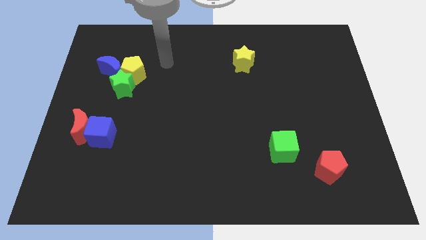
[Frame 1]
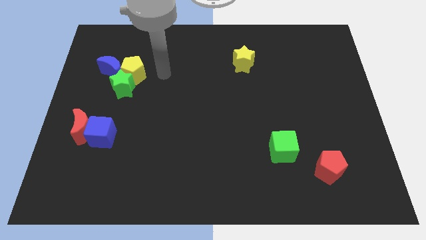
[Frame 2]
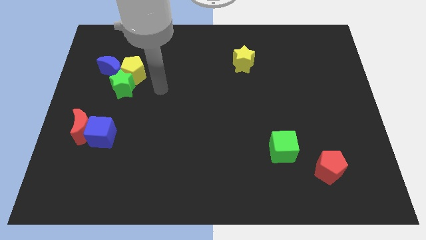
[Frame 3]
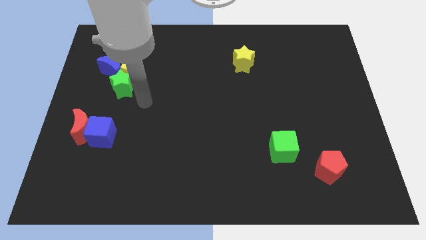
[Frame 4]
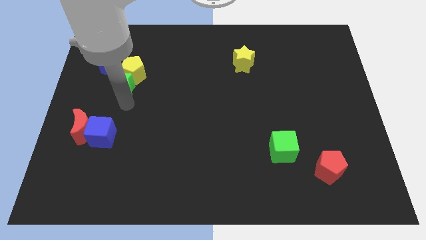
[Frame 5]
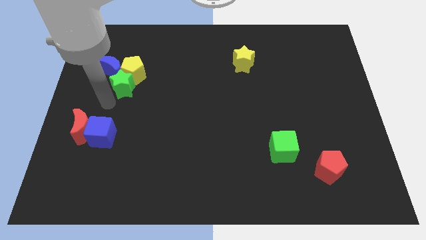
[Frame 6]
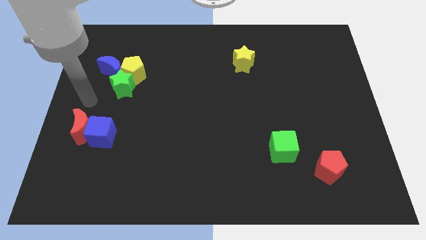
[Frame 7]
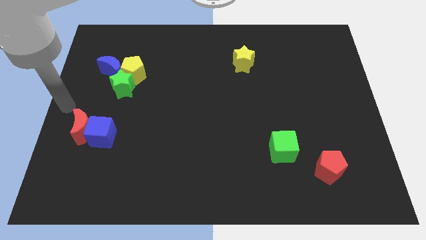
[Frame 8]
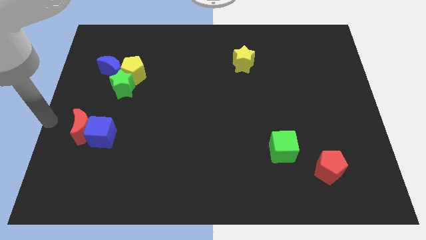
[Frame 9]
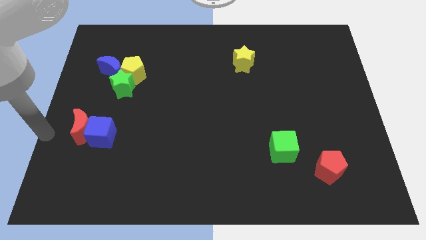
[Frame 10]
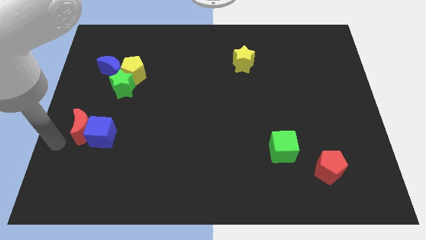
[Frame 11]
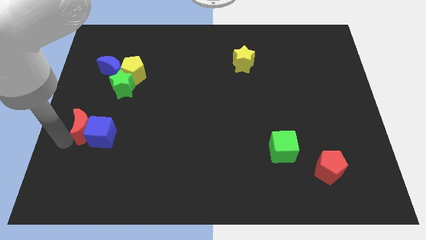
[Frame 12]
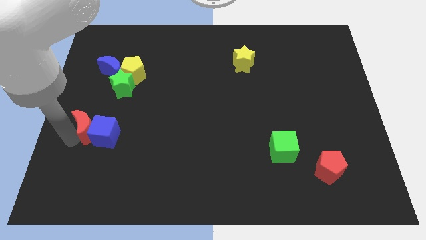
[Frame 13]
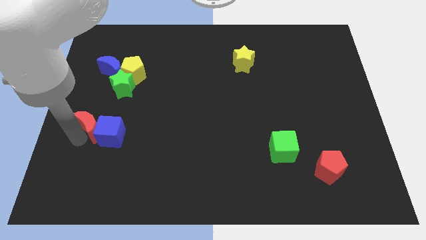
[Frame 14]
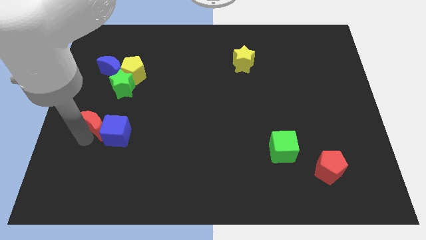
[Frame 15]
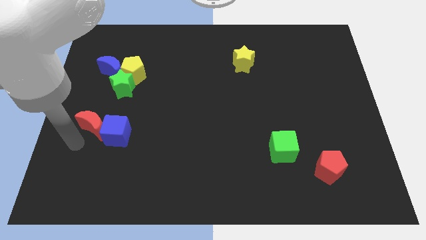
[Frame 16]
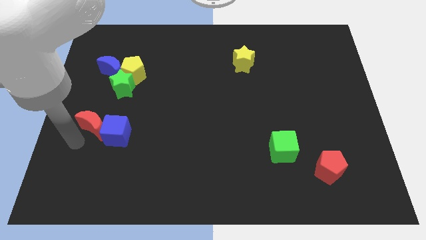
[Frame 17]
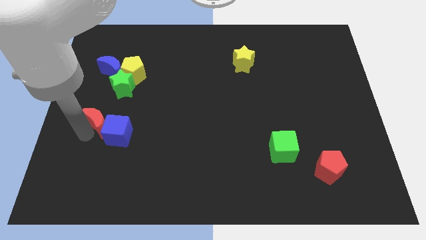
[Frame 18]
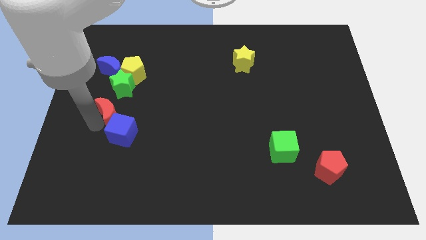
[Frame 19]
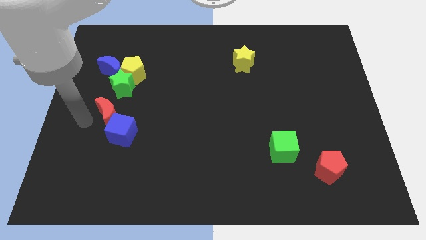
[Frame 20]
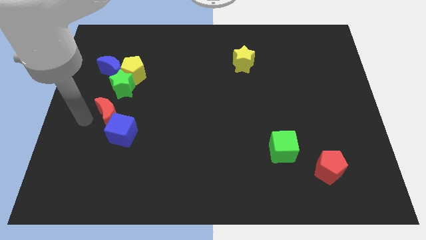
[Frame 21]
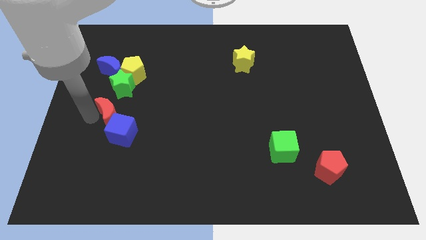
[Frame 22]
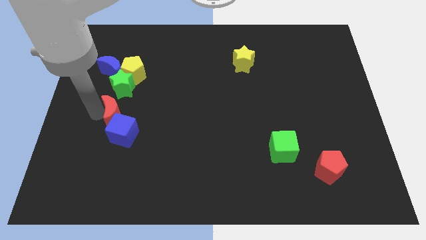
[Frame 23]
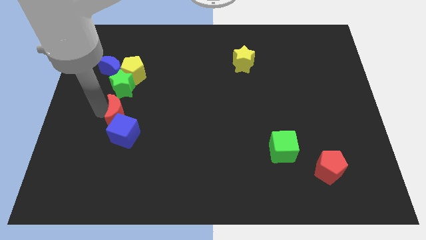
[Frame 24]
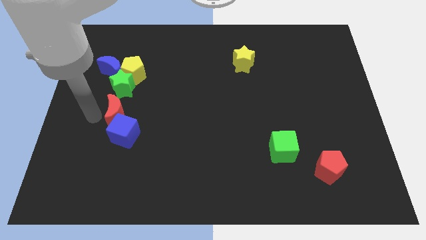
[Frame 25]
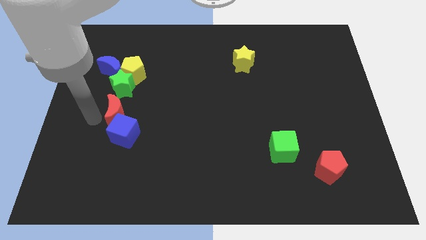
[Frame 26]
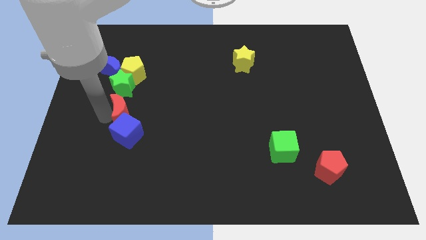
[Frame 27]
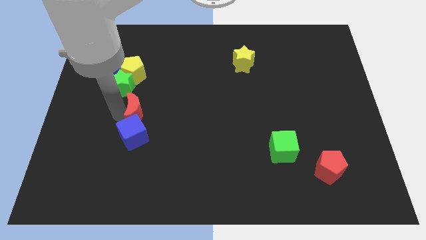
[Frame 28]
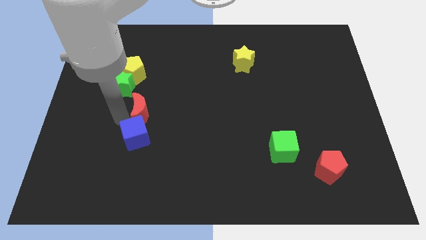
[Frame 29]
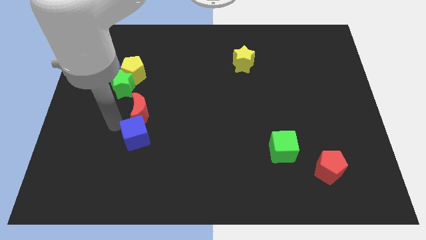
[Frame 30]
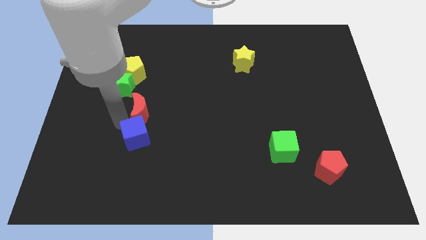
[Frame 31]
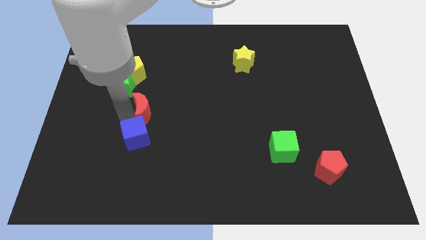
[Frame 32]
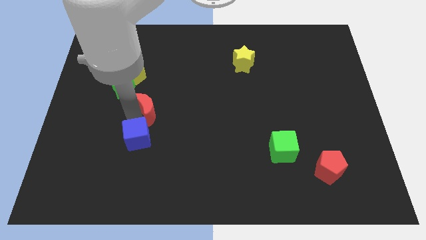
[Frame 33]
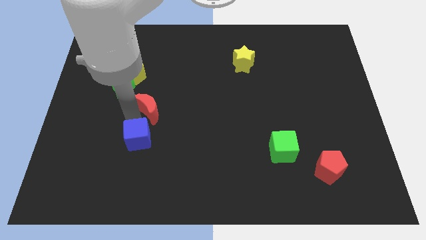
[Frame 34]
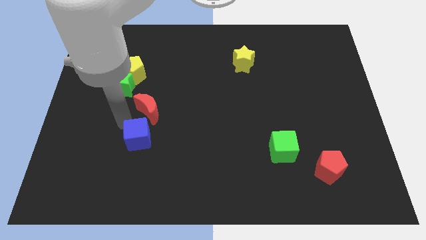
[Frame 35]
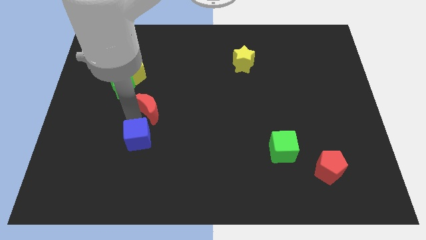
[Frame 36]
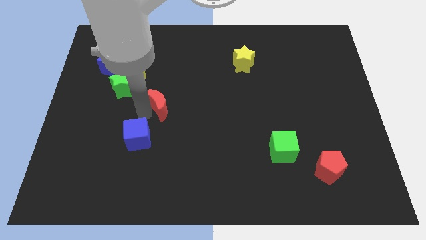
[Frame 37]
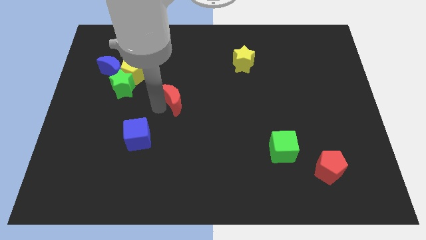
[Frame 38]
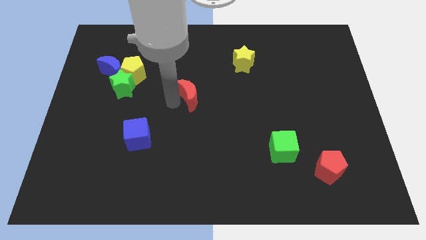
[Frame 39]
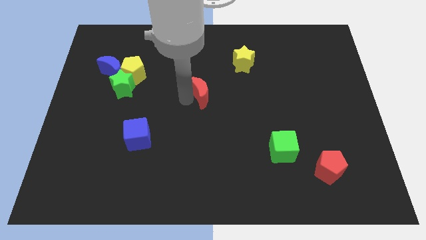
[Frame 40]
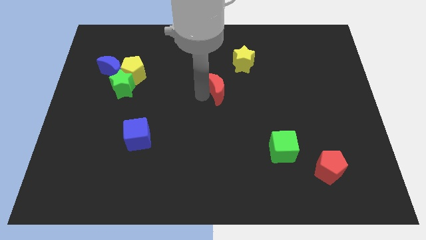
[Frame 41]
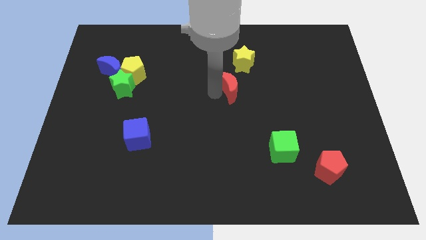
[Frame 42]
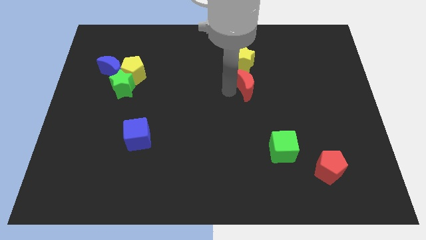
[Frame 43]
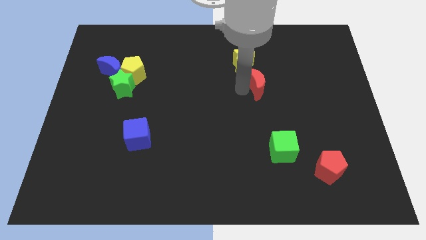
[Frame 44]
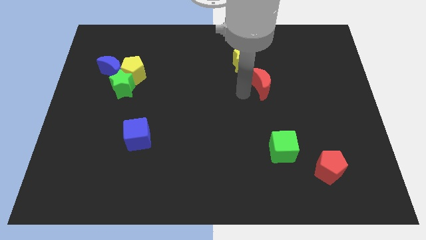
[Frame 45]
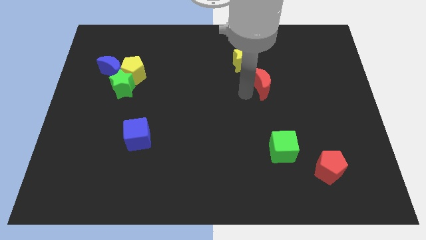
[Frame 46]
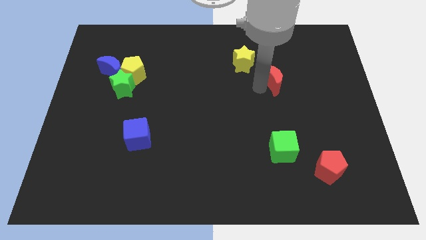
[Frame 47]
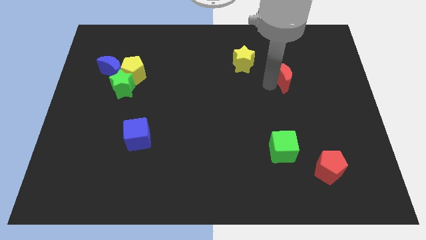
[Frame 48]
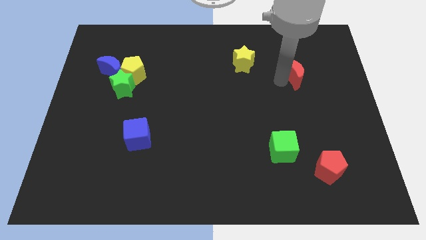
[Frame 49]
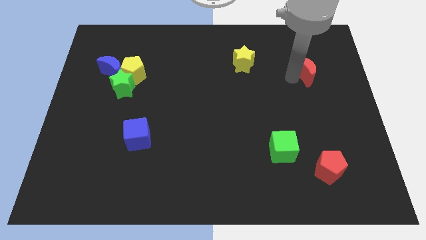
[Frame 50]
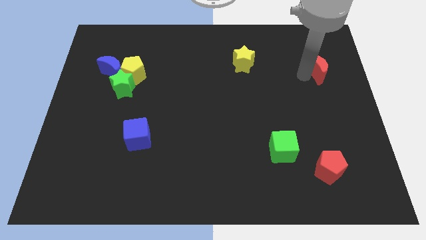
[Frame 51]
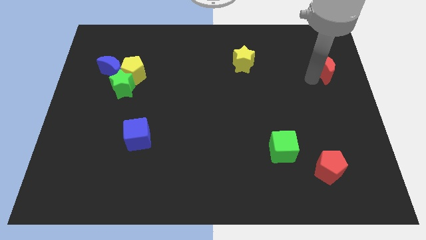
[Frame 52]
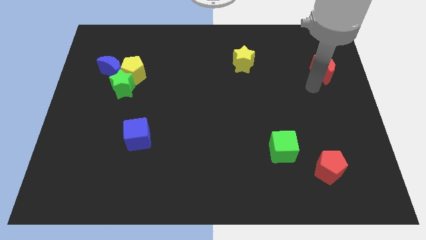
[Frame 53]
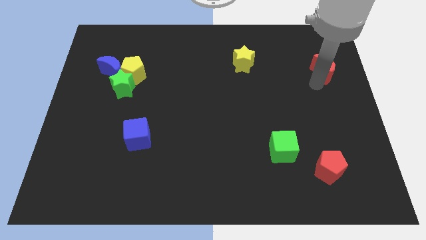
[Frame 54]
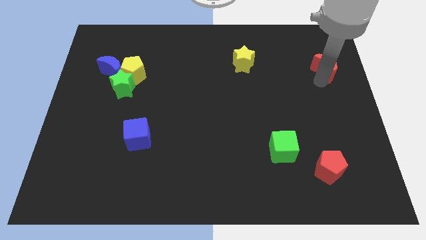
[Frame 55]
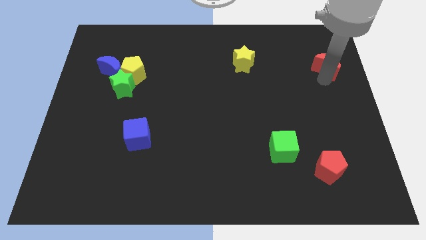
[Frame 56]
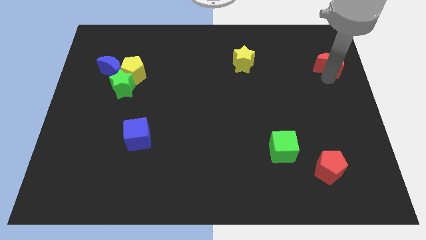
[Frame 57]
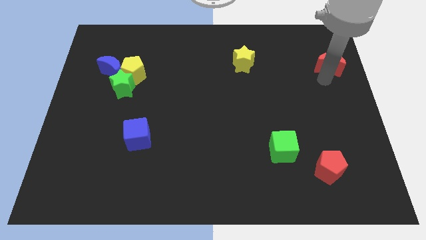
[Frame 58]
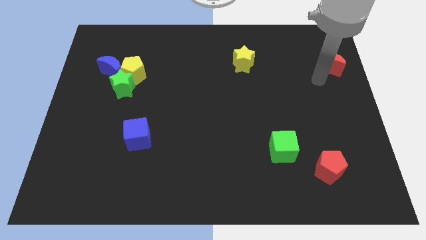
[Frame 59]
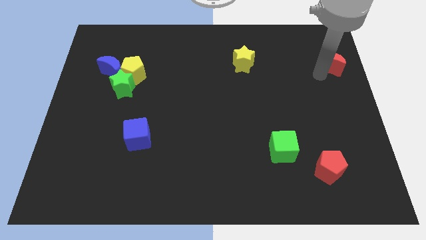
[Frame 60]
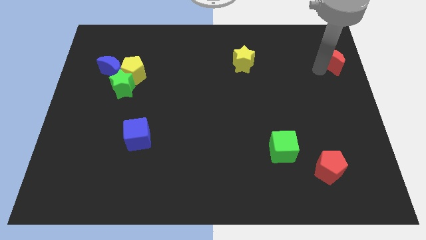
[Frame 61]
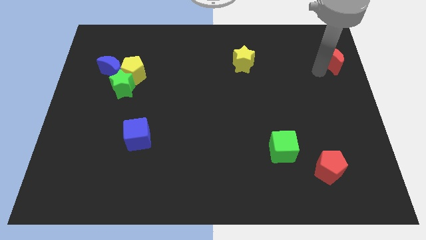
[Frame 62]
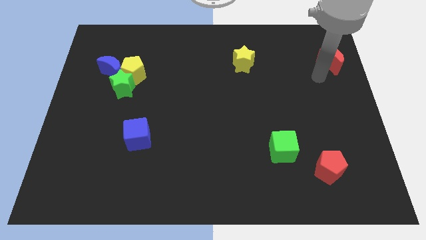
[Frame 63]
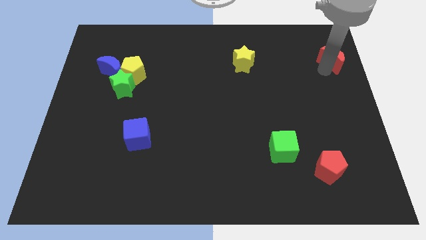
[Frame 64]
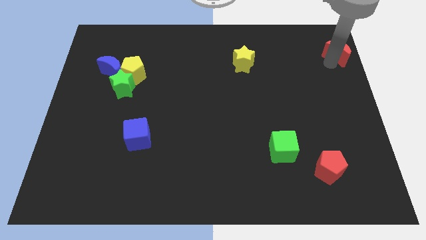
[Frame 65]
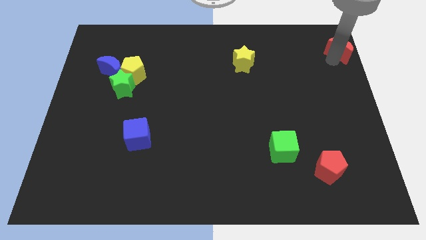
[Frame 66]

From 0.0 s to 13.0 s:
slide the red moon to the upper right corner
